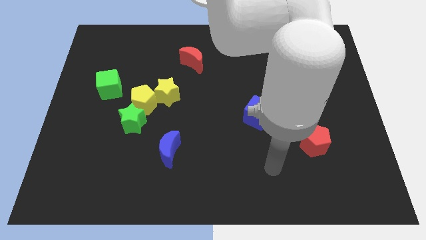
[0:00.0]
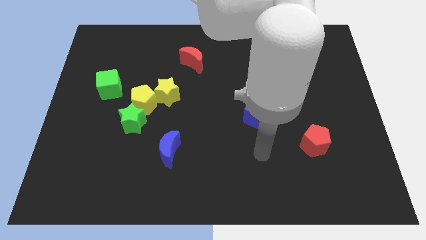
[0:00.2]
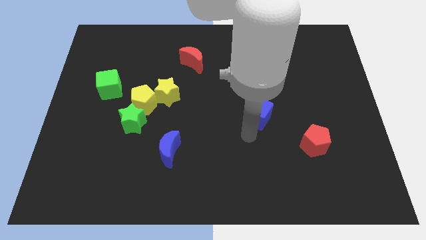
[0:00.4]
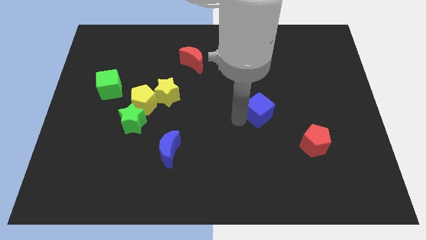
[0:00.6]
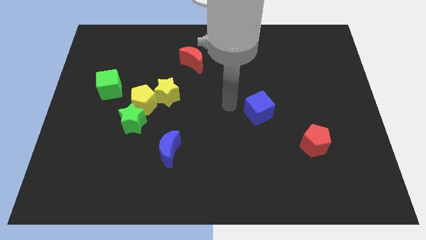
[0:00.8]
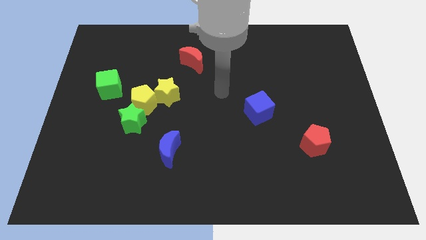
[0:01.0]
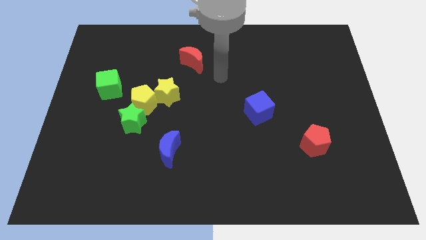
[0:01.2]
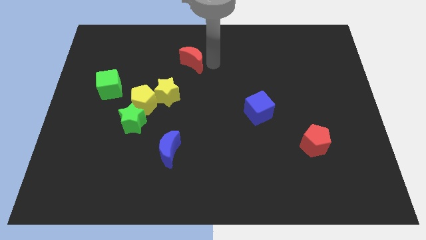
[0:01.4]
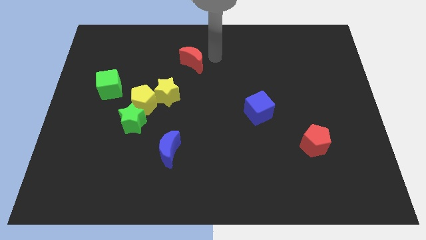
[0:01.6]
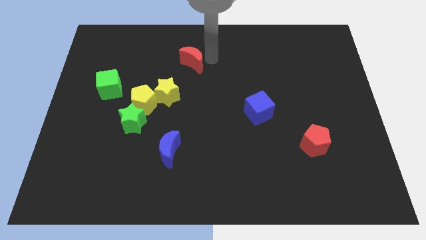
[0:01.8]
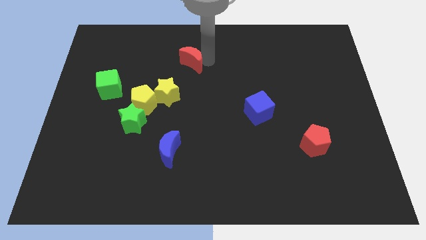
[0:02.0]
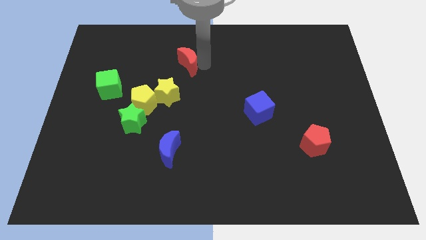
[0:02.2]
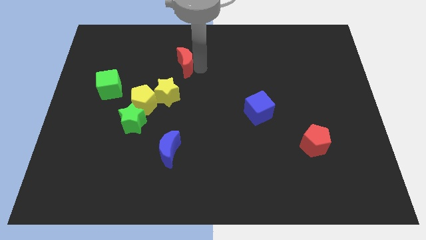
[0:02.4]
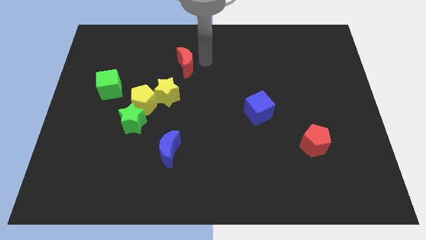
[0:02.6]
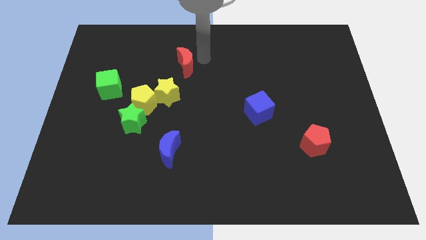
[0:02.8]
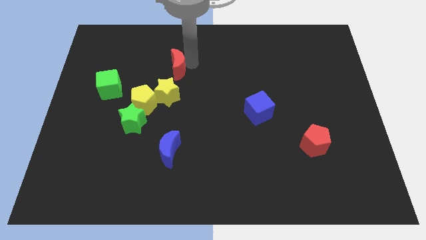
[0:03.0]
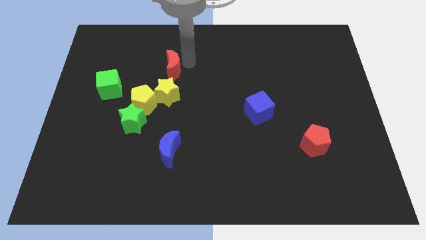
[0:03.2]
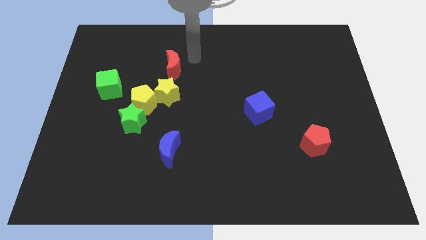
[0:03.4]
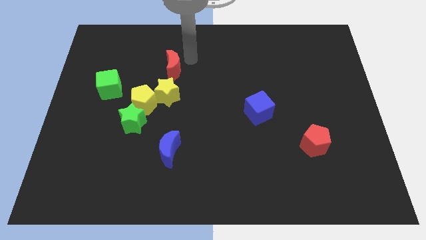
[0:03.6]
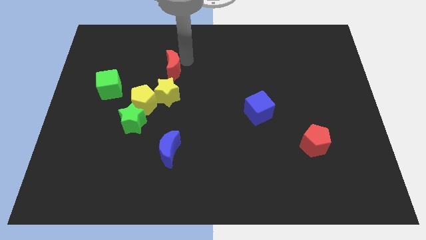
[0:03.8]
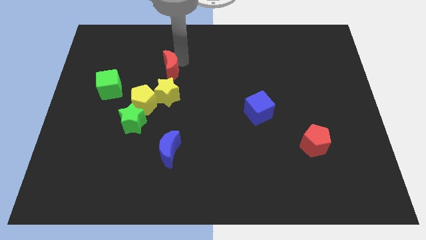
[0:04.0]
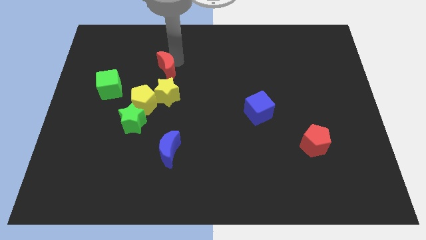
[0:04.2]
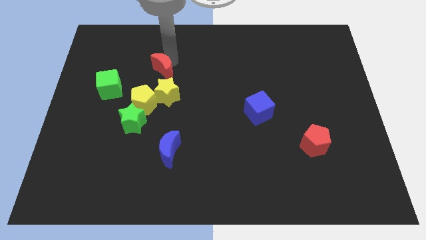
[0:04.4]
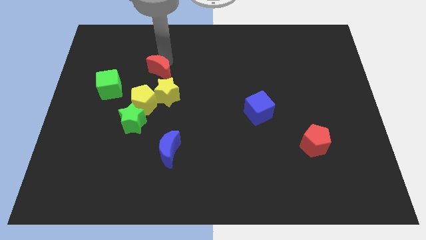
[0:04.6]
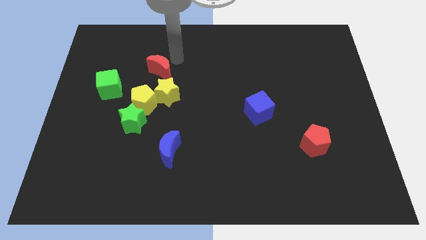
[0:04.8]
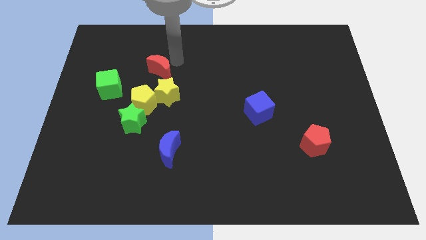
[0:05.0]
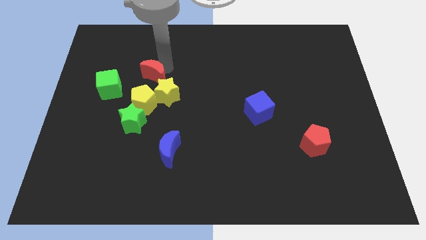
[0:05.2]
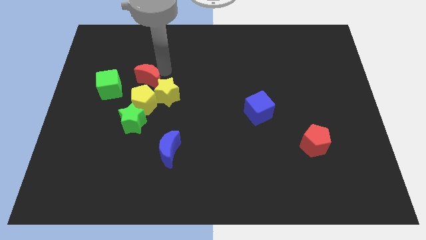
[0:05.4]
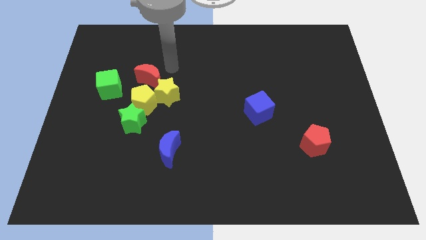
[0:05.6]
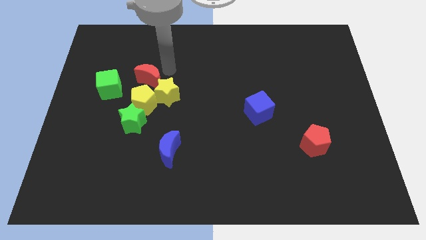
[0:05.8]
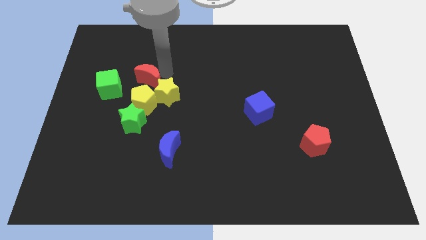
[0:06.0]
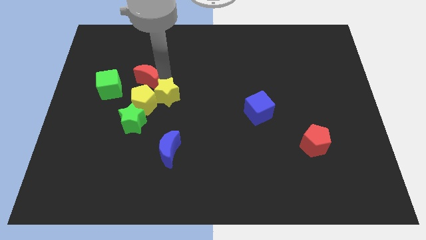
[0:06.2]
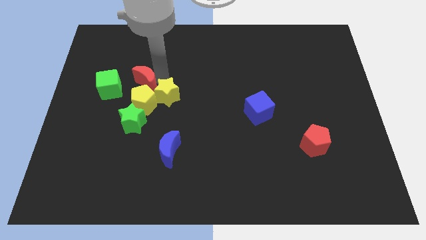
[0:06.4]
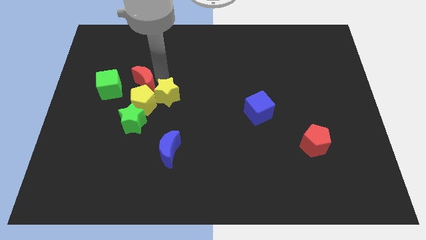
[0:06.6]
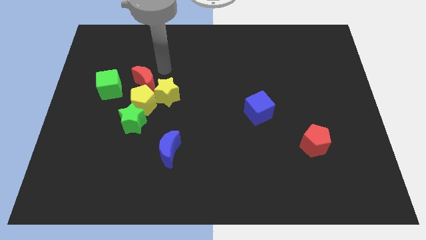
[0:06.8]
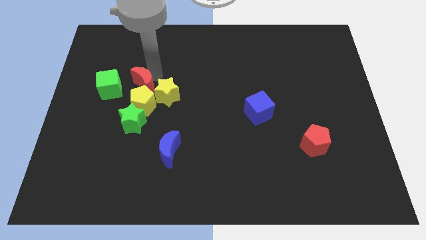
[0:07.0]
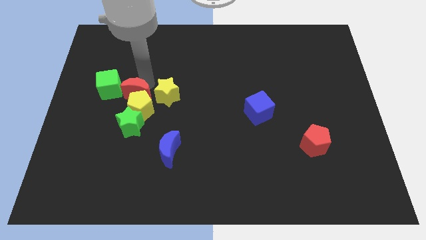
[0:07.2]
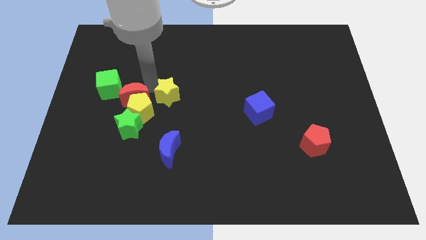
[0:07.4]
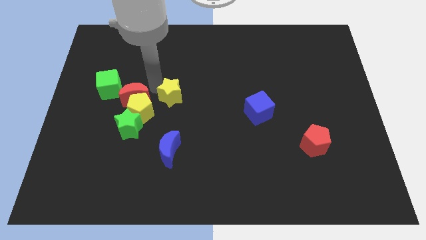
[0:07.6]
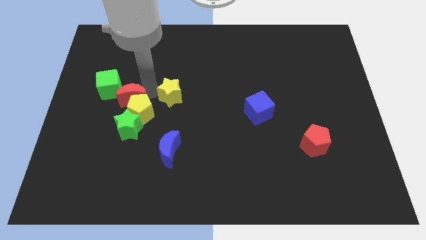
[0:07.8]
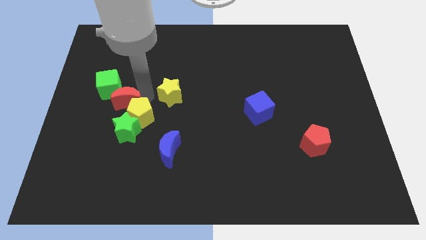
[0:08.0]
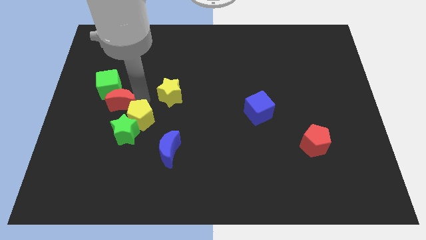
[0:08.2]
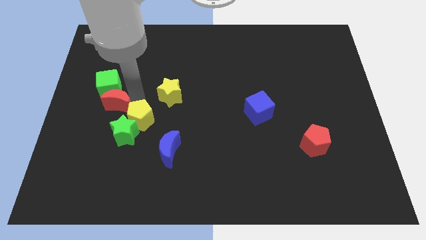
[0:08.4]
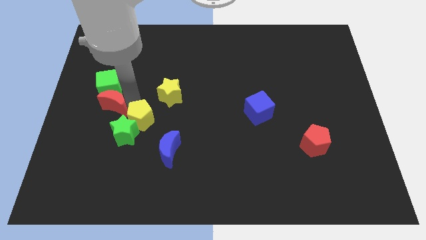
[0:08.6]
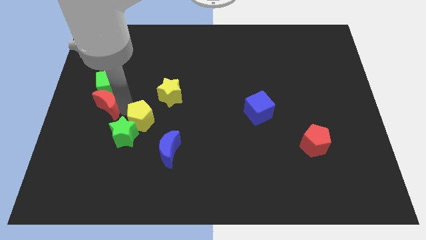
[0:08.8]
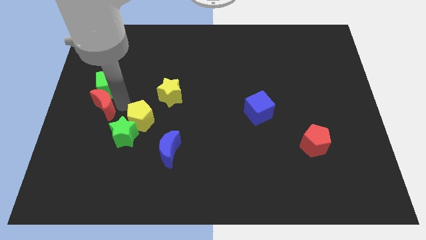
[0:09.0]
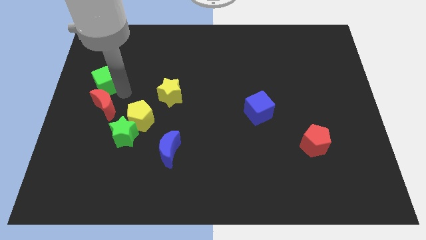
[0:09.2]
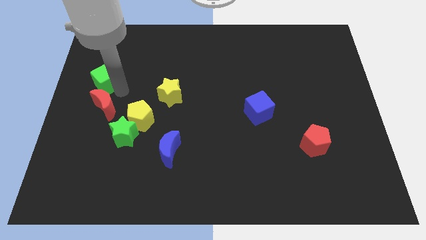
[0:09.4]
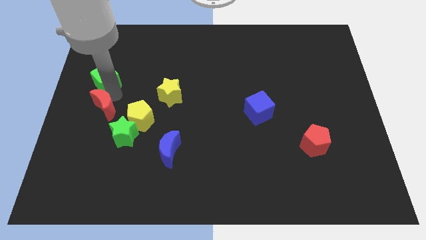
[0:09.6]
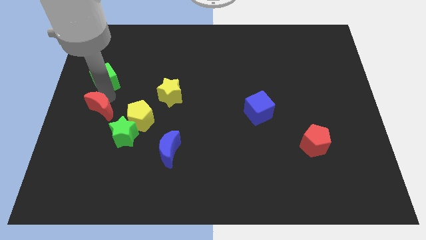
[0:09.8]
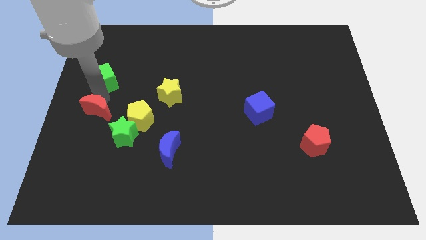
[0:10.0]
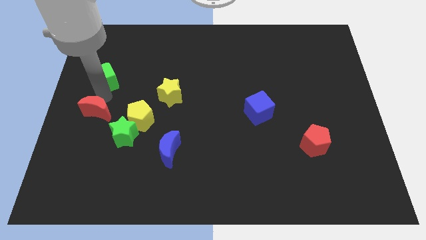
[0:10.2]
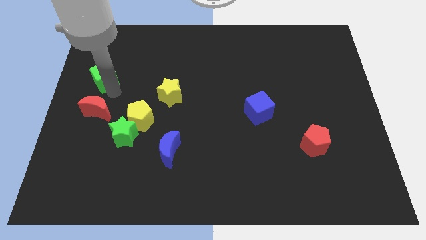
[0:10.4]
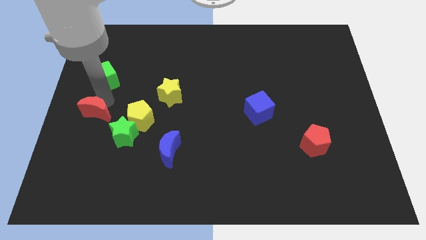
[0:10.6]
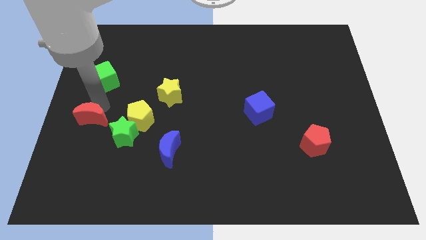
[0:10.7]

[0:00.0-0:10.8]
move the red moon to the left side of the green star

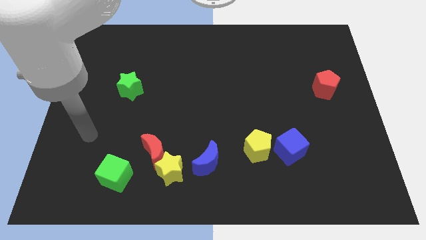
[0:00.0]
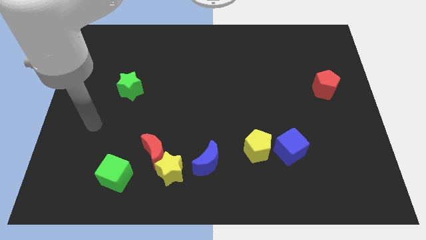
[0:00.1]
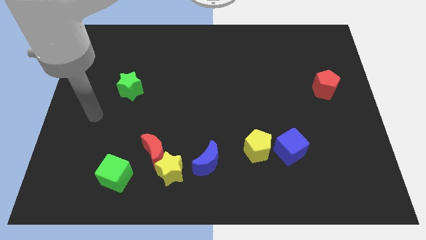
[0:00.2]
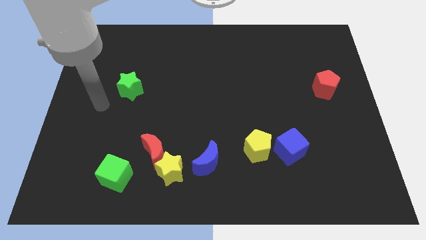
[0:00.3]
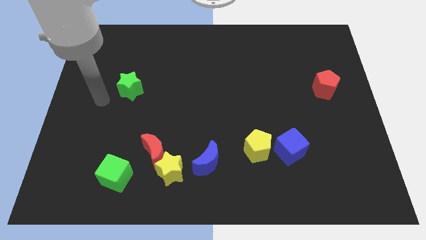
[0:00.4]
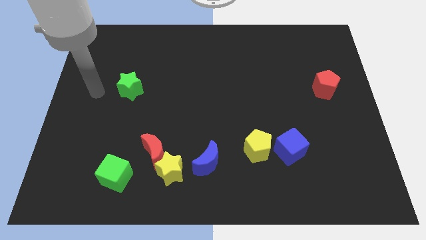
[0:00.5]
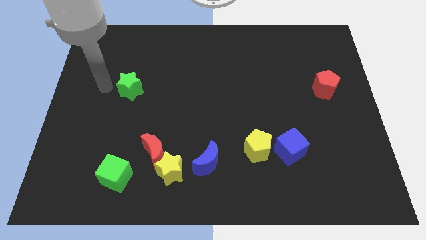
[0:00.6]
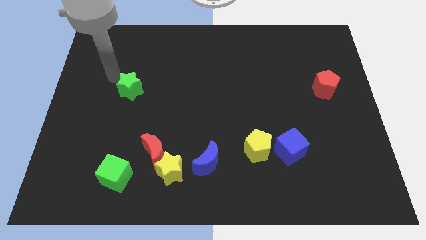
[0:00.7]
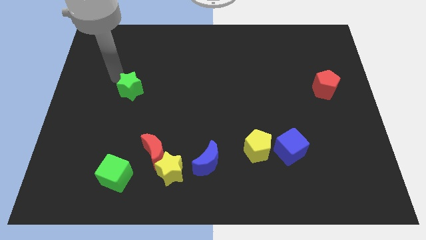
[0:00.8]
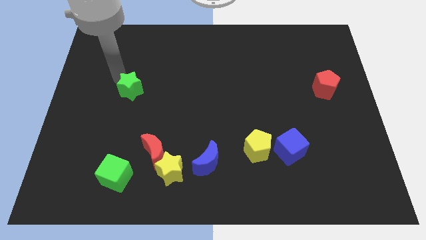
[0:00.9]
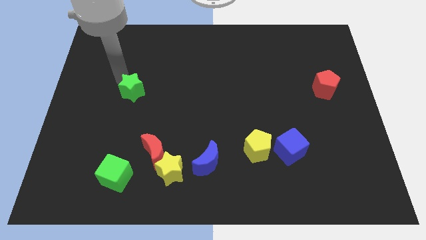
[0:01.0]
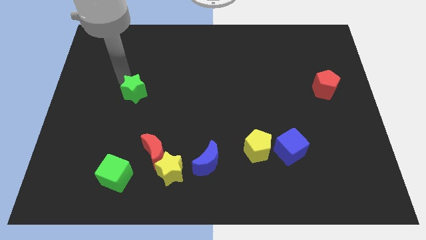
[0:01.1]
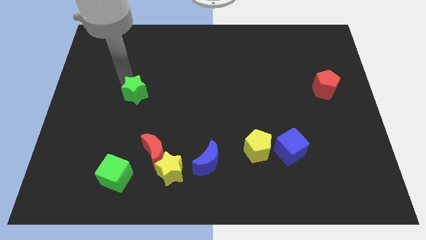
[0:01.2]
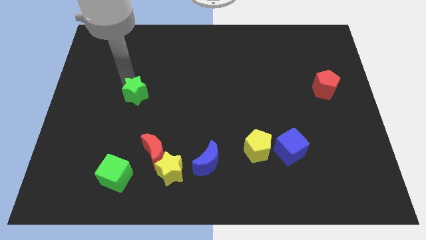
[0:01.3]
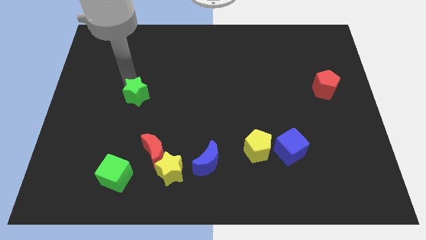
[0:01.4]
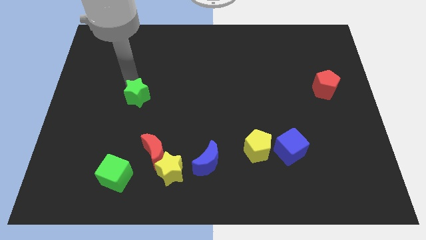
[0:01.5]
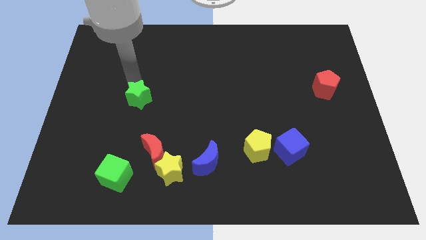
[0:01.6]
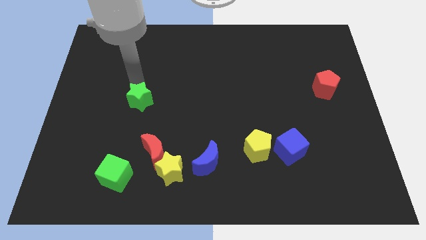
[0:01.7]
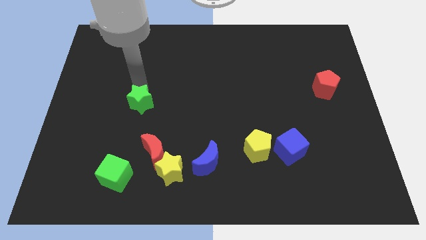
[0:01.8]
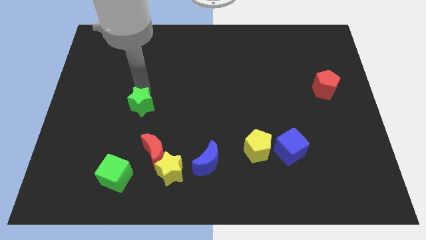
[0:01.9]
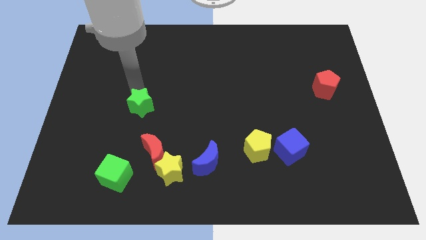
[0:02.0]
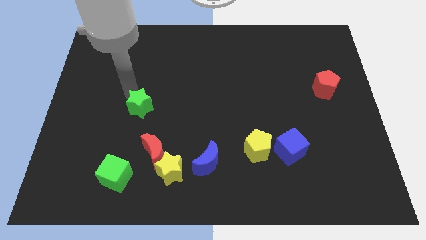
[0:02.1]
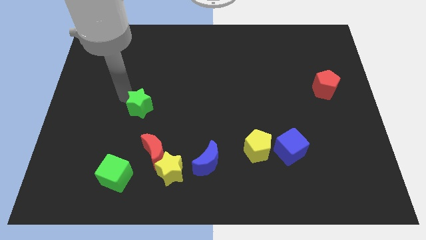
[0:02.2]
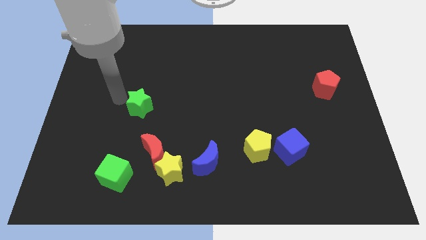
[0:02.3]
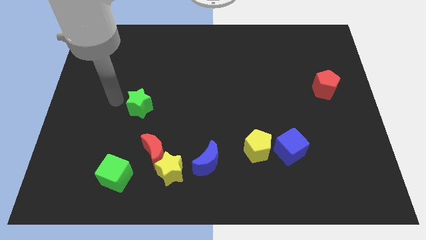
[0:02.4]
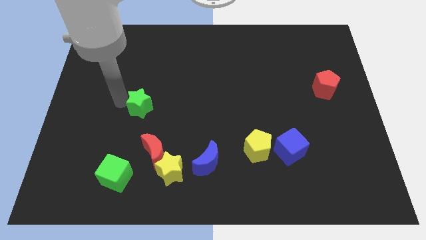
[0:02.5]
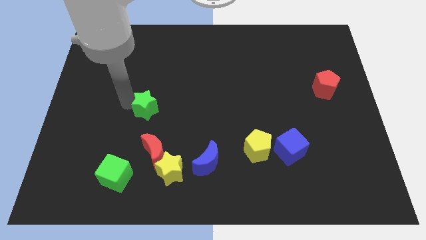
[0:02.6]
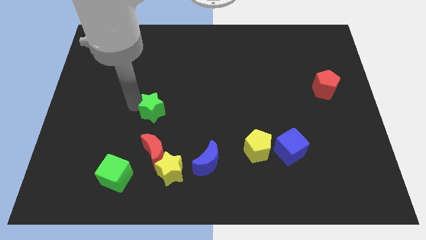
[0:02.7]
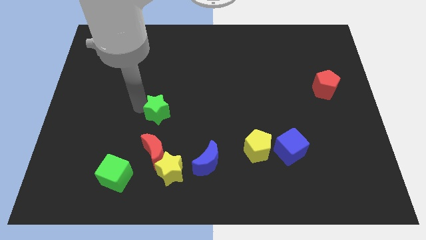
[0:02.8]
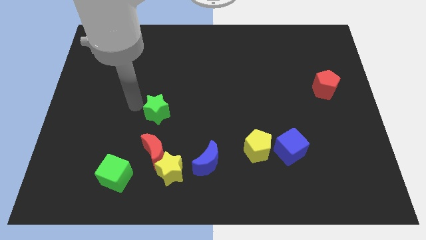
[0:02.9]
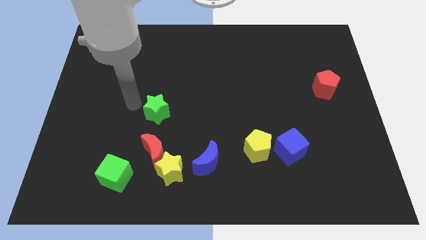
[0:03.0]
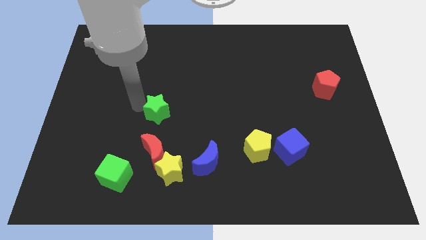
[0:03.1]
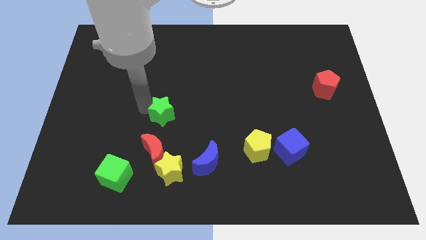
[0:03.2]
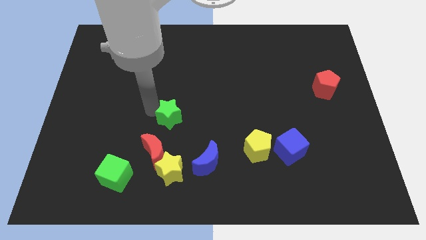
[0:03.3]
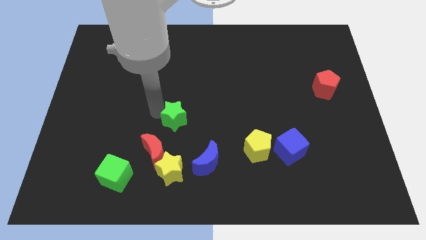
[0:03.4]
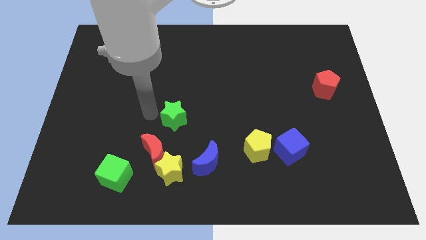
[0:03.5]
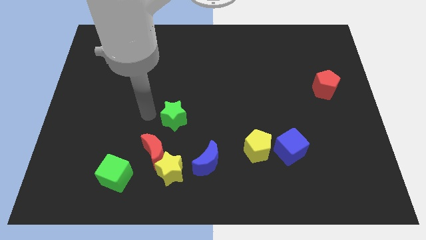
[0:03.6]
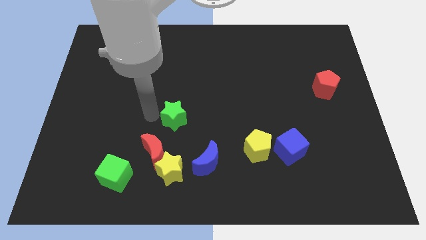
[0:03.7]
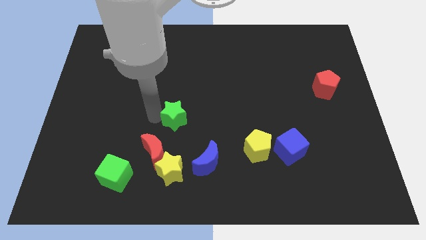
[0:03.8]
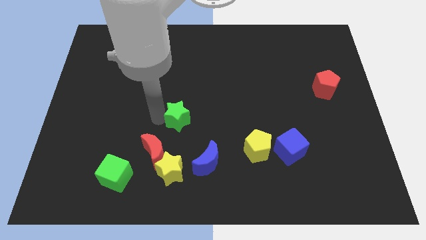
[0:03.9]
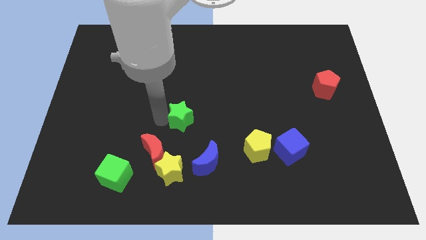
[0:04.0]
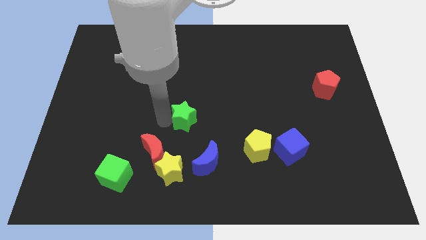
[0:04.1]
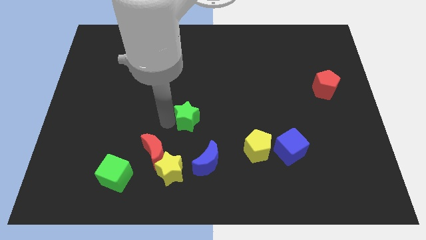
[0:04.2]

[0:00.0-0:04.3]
move the green star to the top of the blue moon
